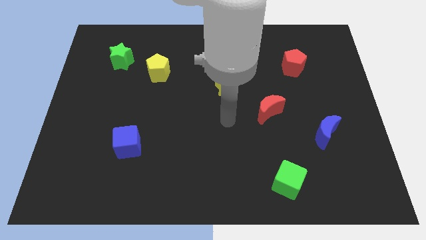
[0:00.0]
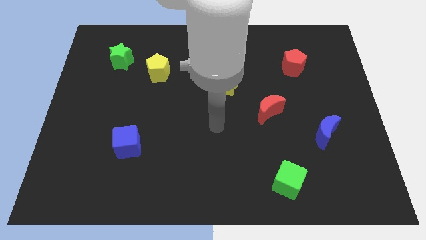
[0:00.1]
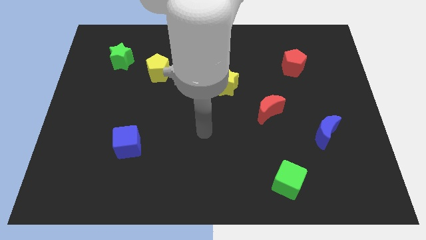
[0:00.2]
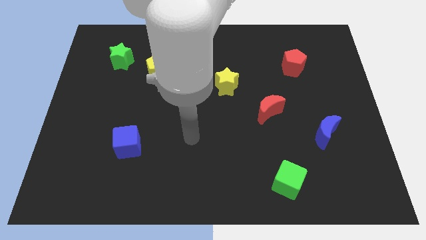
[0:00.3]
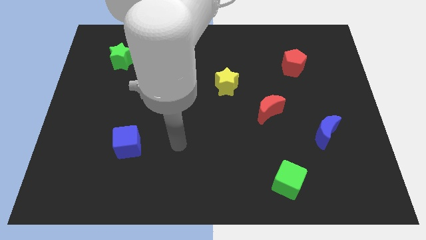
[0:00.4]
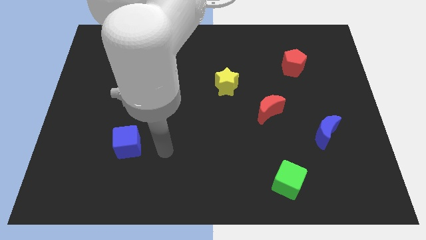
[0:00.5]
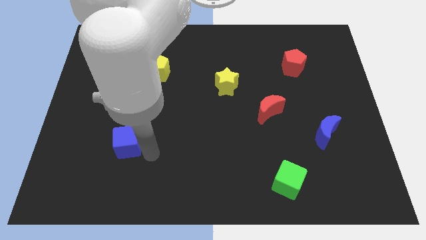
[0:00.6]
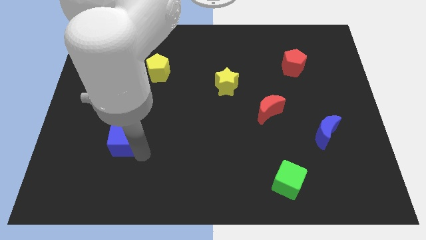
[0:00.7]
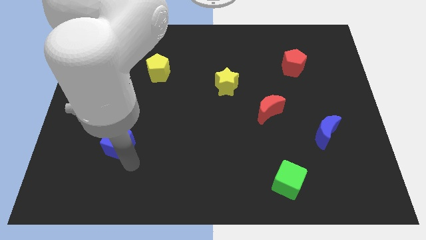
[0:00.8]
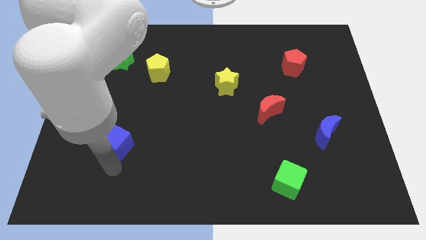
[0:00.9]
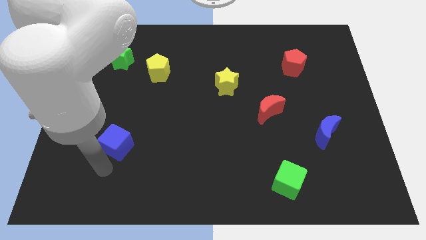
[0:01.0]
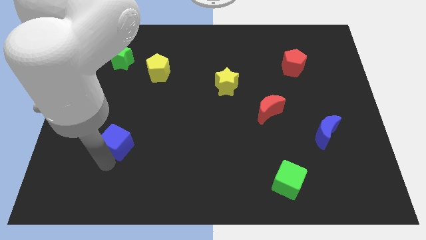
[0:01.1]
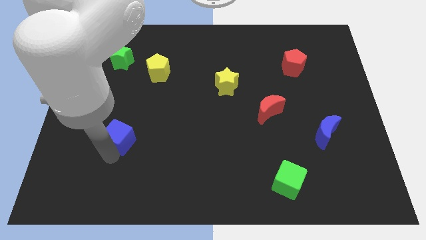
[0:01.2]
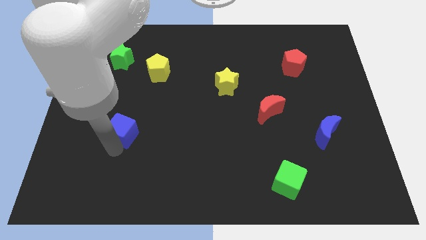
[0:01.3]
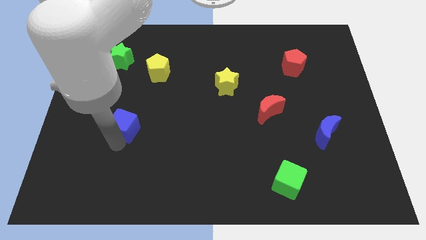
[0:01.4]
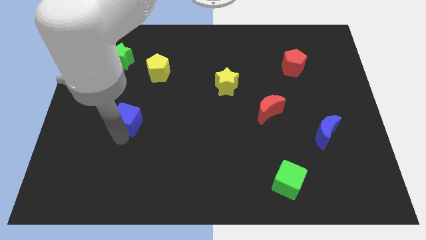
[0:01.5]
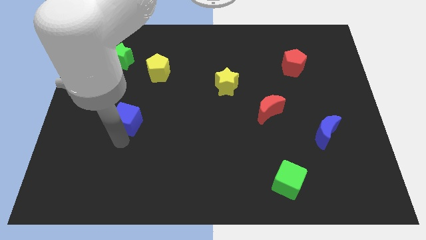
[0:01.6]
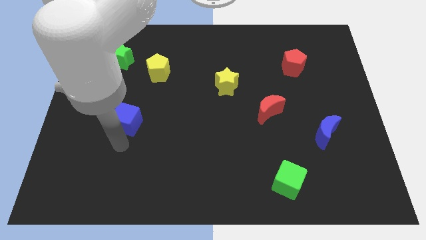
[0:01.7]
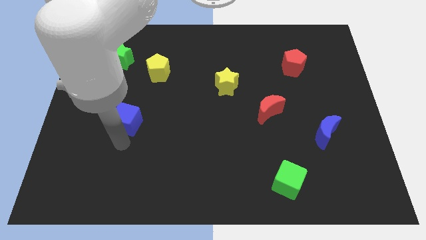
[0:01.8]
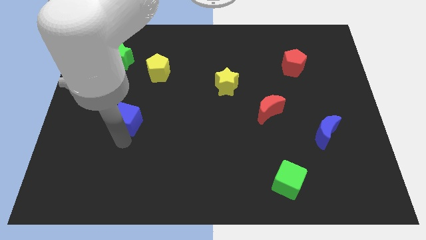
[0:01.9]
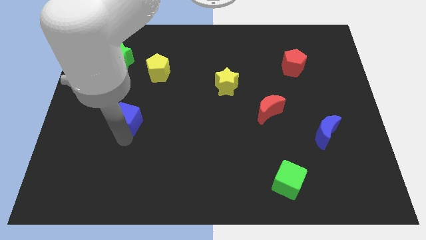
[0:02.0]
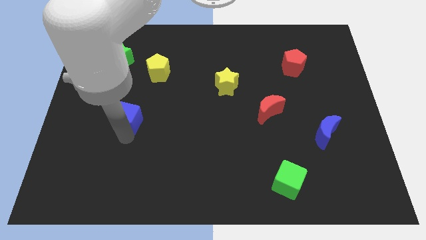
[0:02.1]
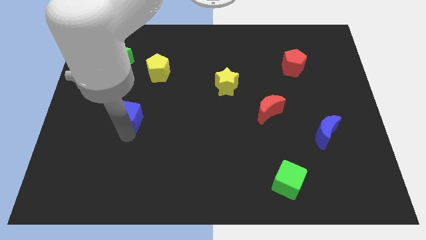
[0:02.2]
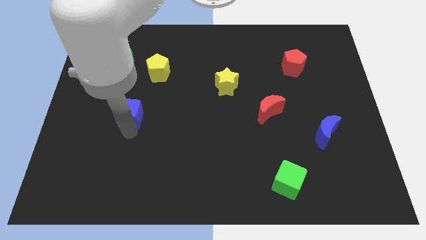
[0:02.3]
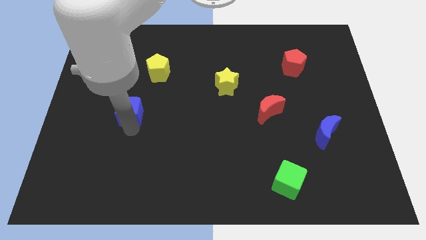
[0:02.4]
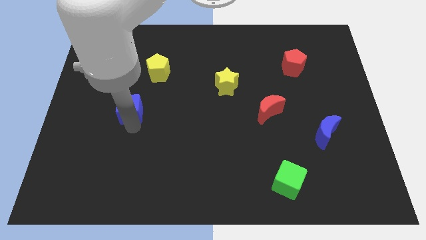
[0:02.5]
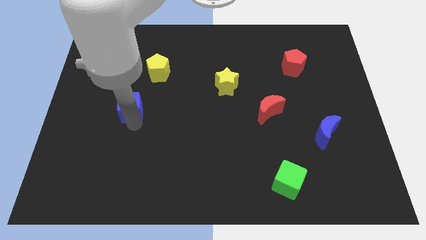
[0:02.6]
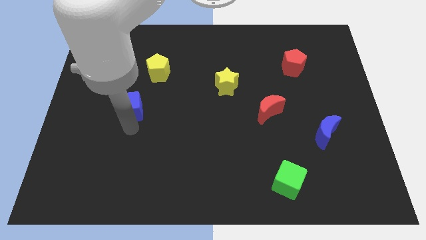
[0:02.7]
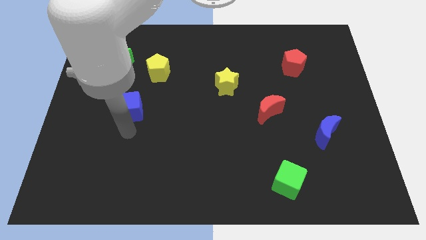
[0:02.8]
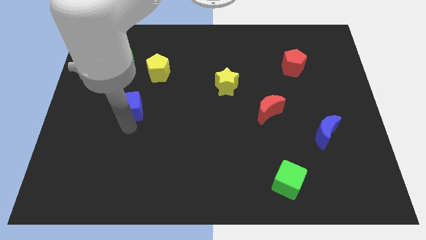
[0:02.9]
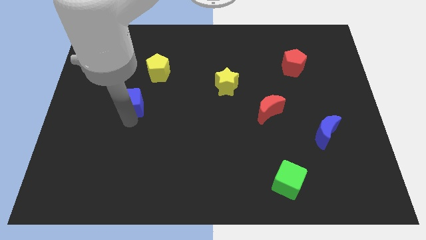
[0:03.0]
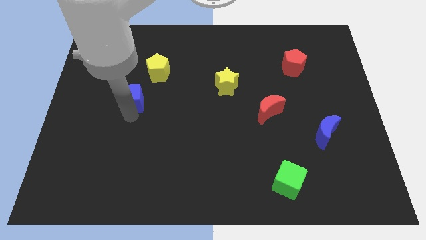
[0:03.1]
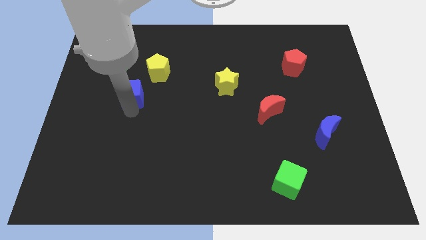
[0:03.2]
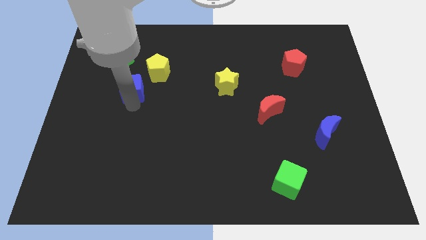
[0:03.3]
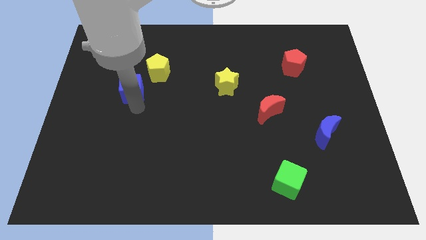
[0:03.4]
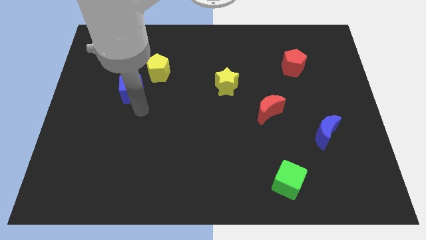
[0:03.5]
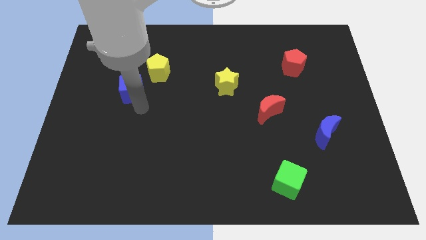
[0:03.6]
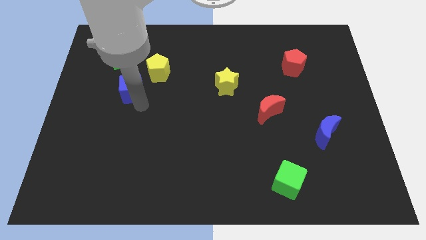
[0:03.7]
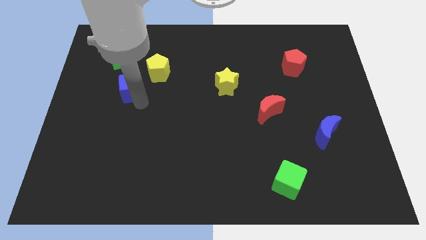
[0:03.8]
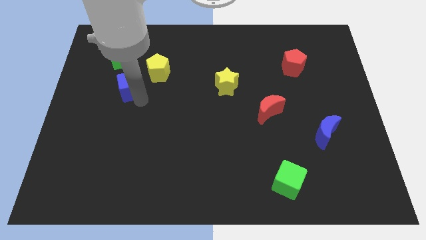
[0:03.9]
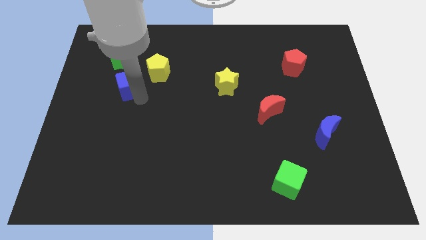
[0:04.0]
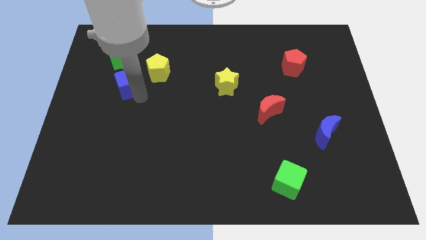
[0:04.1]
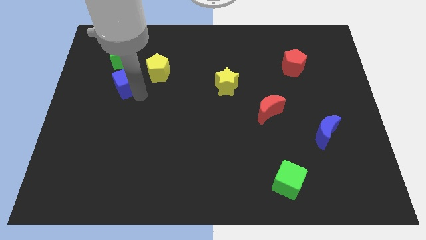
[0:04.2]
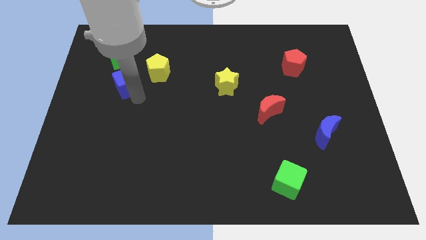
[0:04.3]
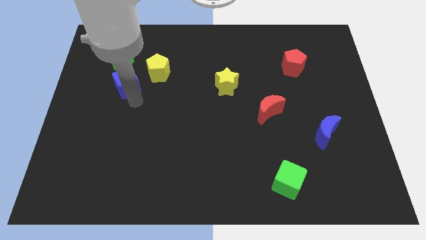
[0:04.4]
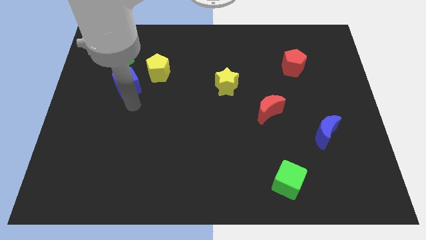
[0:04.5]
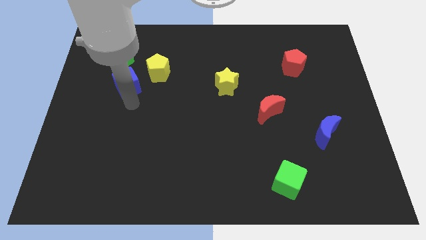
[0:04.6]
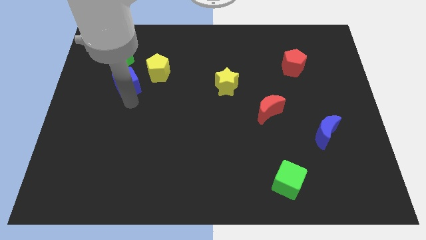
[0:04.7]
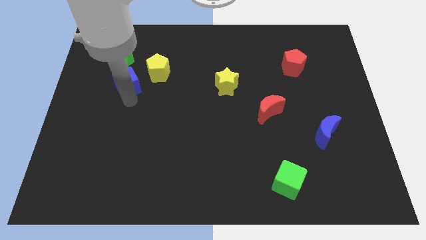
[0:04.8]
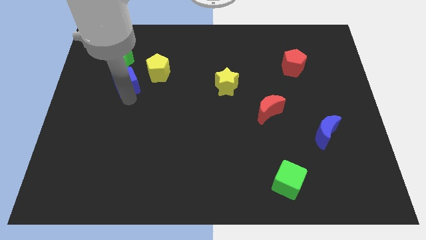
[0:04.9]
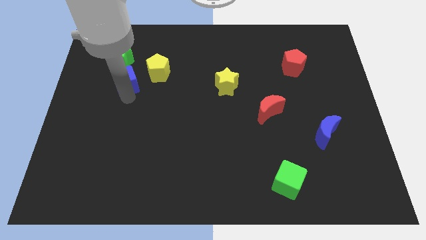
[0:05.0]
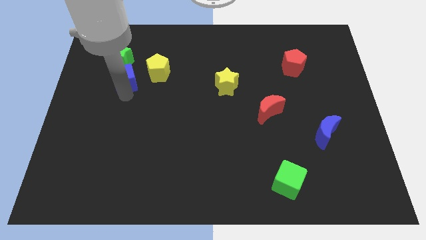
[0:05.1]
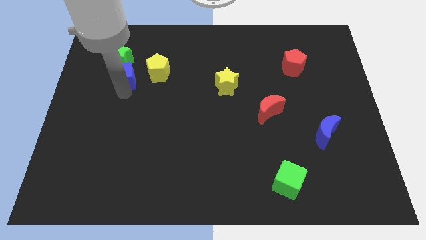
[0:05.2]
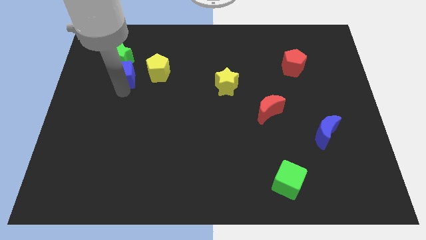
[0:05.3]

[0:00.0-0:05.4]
slide the blue cube next to the green star

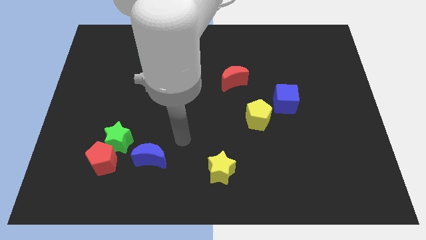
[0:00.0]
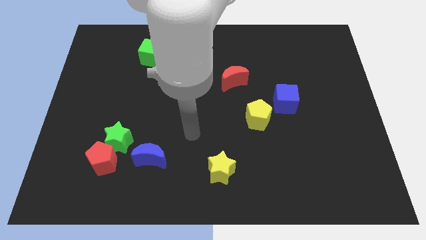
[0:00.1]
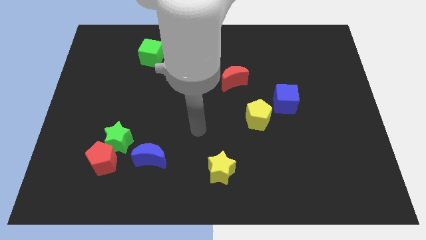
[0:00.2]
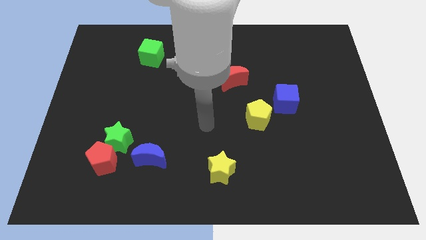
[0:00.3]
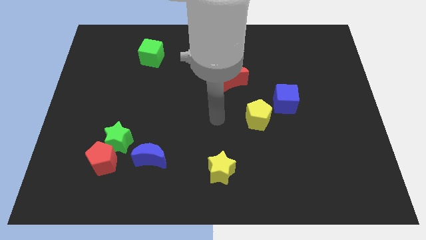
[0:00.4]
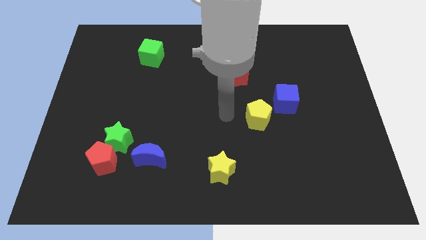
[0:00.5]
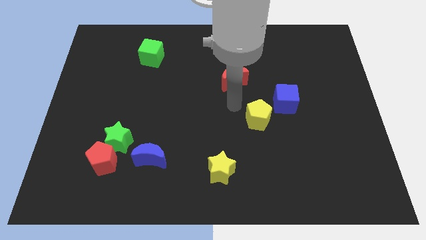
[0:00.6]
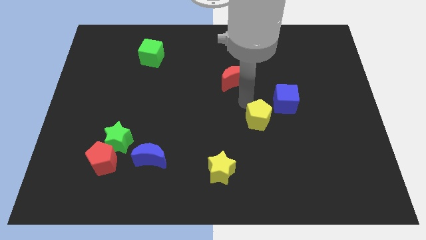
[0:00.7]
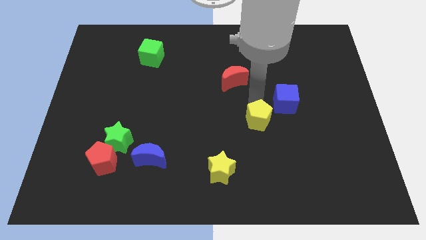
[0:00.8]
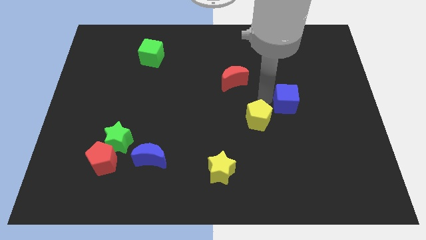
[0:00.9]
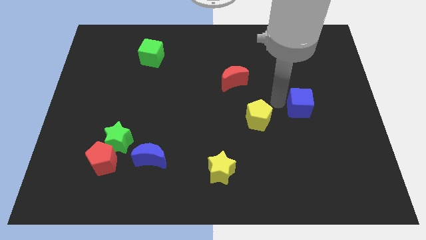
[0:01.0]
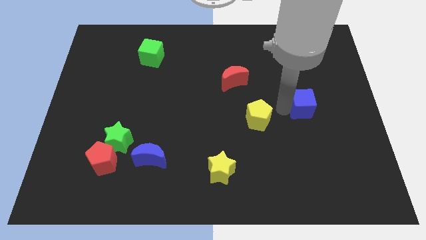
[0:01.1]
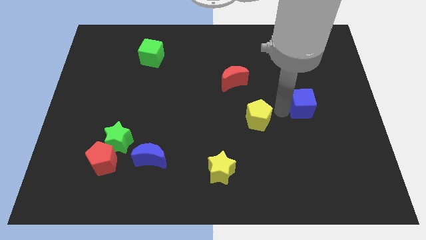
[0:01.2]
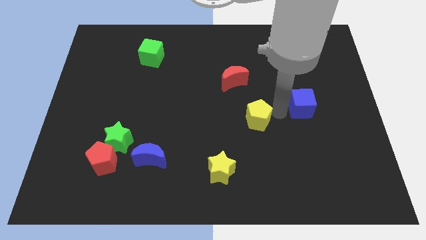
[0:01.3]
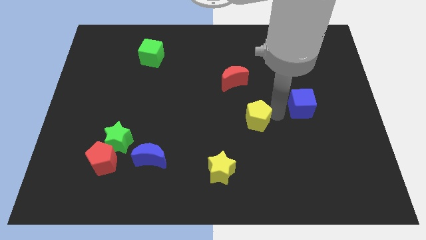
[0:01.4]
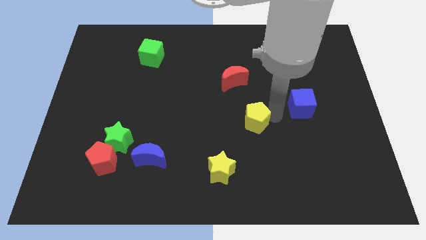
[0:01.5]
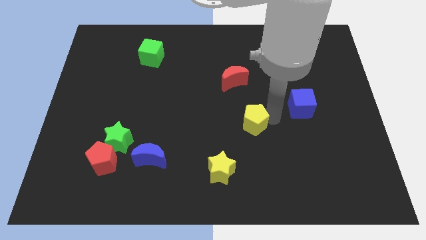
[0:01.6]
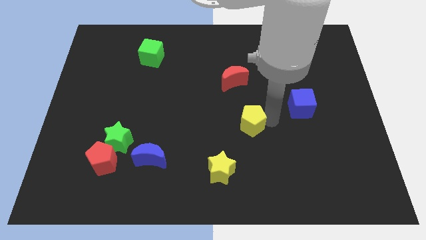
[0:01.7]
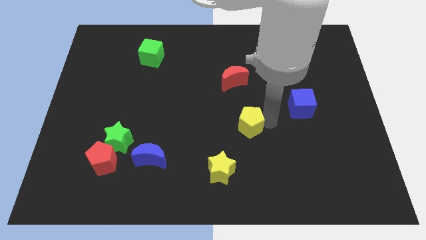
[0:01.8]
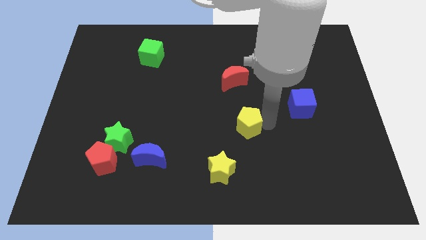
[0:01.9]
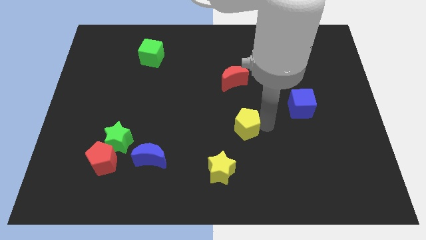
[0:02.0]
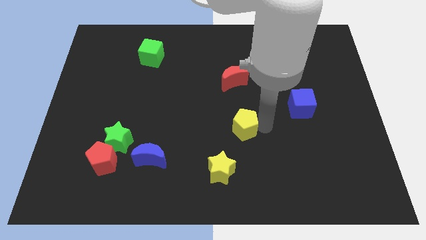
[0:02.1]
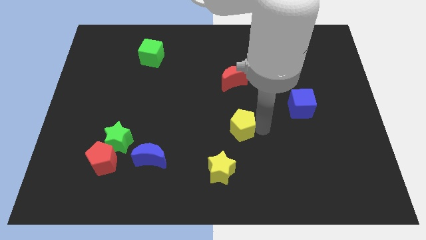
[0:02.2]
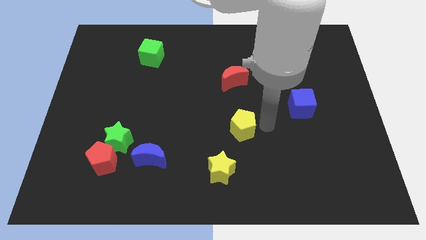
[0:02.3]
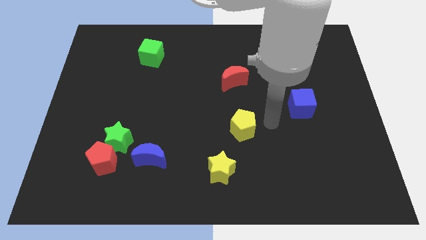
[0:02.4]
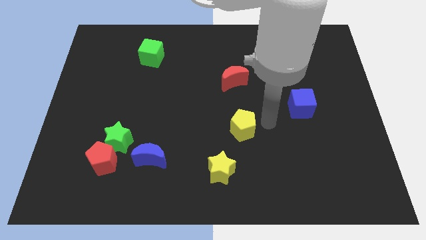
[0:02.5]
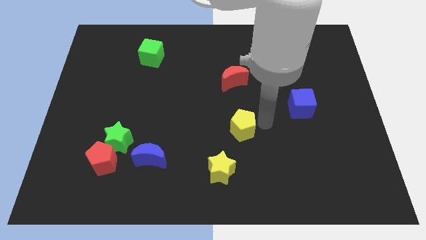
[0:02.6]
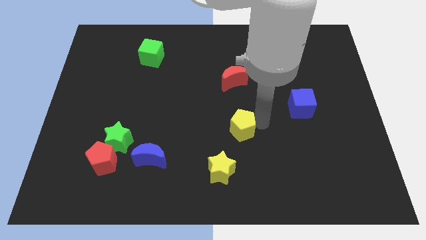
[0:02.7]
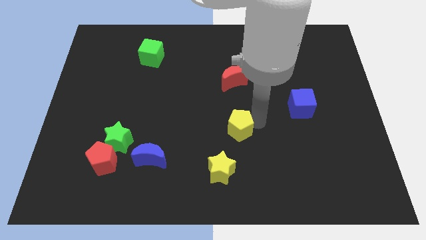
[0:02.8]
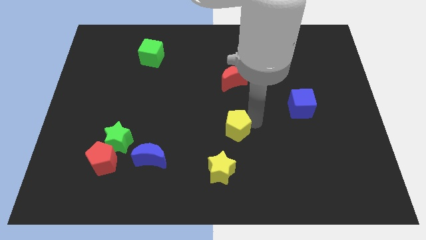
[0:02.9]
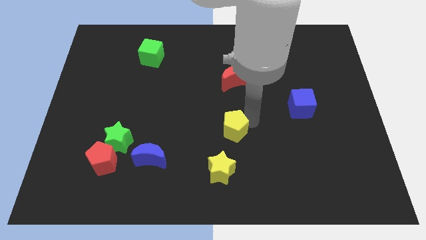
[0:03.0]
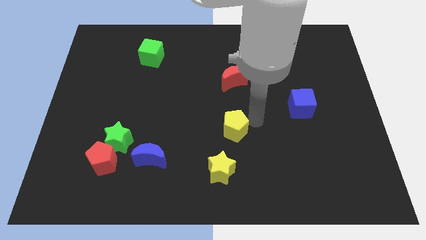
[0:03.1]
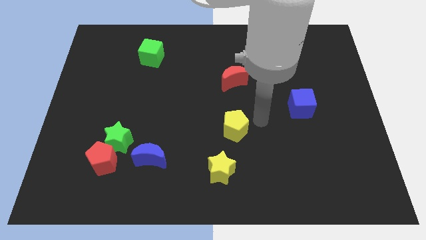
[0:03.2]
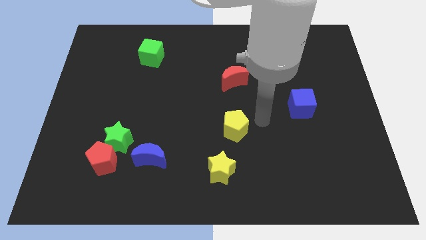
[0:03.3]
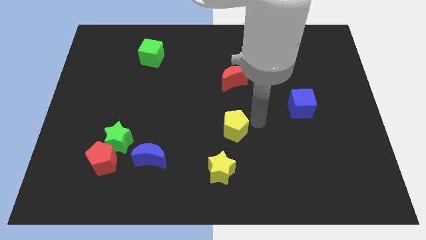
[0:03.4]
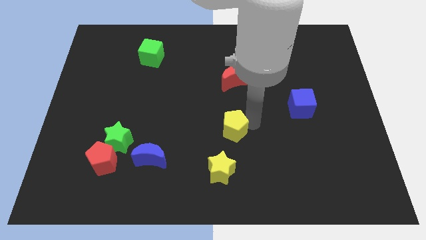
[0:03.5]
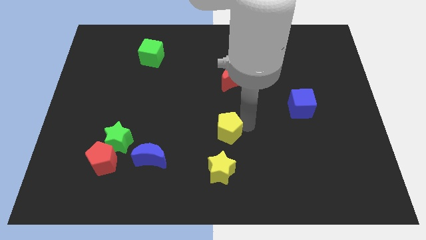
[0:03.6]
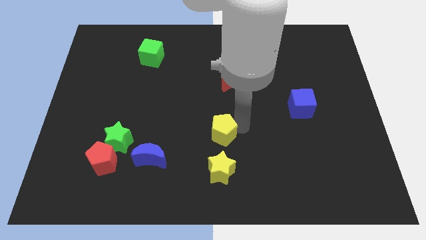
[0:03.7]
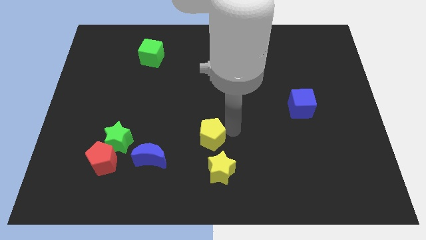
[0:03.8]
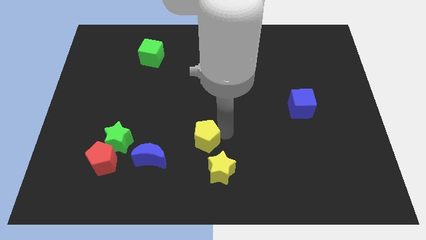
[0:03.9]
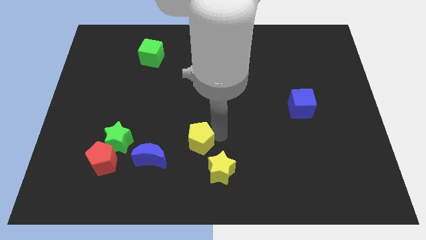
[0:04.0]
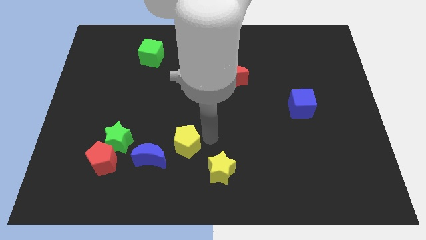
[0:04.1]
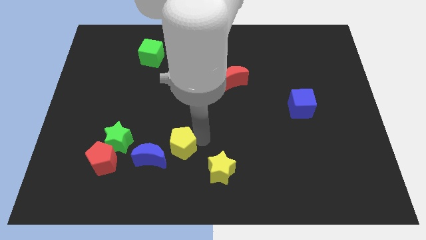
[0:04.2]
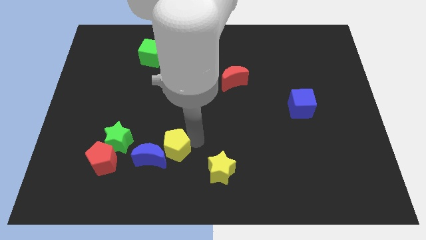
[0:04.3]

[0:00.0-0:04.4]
move the yellow pentagon towards the blue moon
